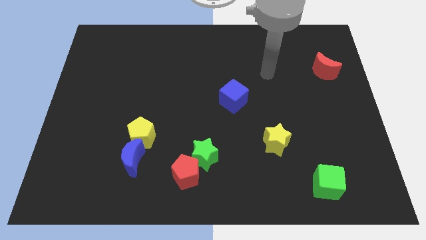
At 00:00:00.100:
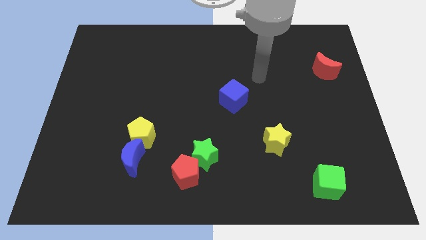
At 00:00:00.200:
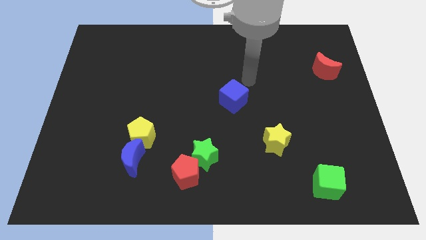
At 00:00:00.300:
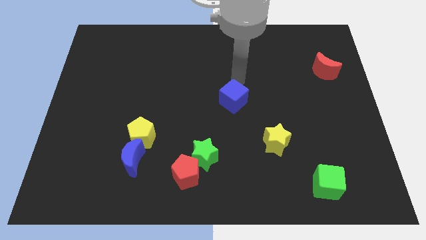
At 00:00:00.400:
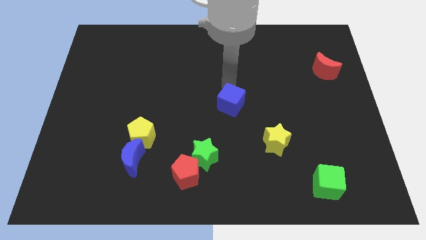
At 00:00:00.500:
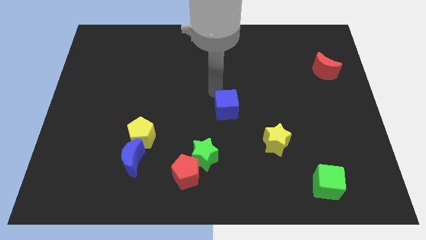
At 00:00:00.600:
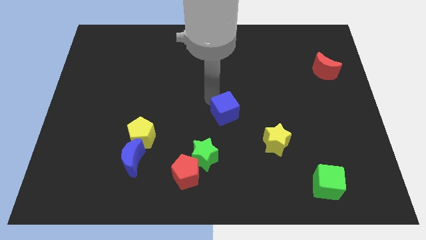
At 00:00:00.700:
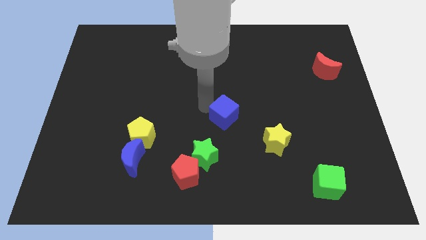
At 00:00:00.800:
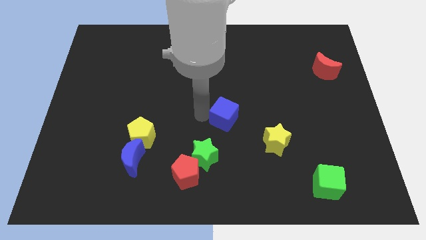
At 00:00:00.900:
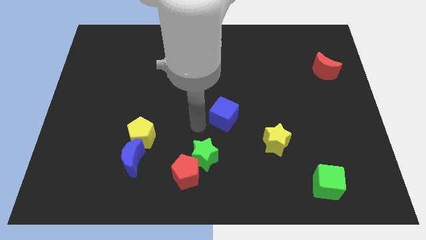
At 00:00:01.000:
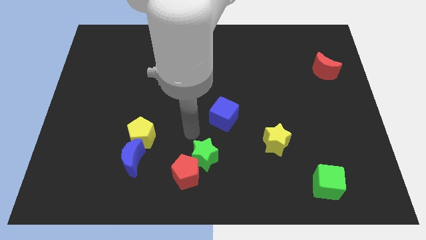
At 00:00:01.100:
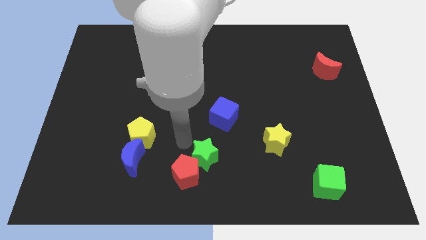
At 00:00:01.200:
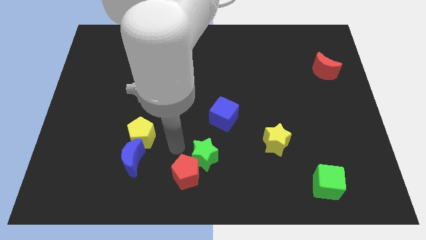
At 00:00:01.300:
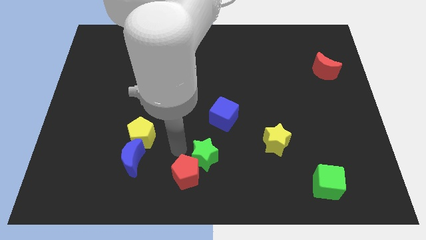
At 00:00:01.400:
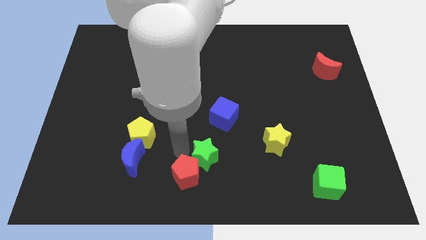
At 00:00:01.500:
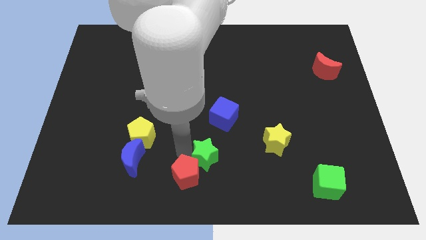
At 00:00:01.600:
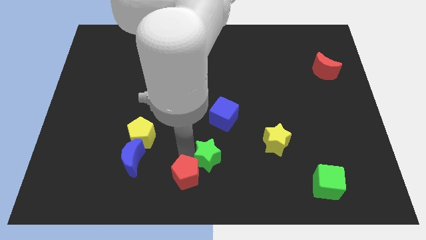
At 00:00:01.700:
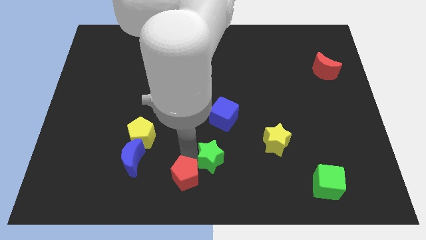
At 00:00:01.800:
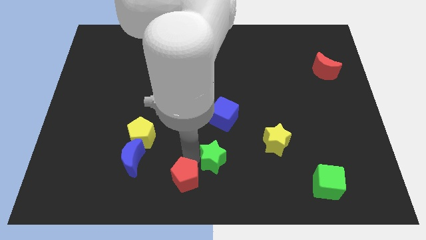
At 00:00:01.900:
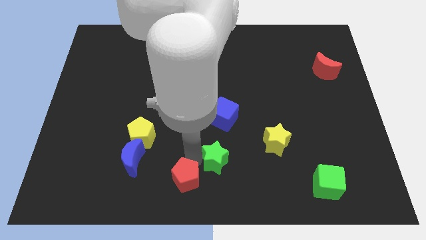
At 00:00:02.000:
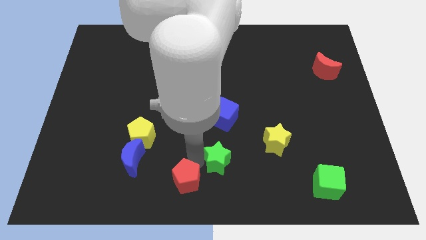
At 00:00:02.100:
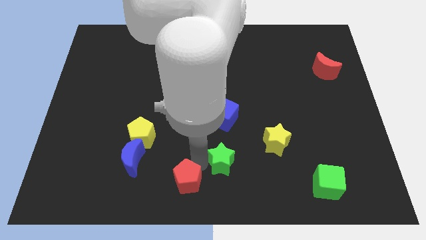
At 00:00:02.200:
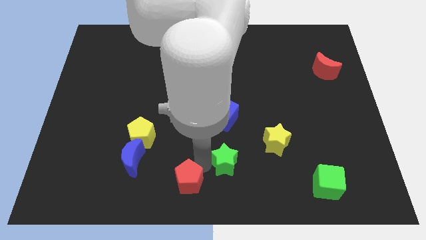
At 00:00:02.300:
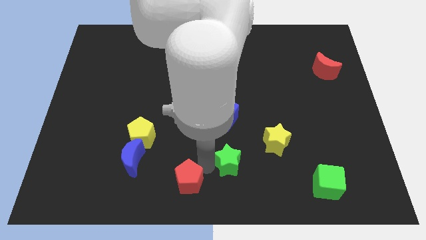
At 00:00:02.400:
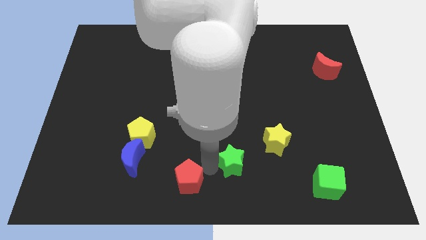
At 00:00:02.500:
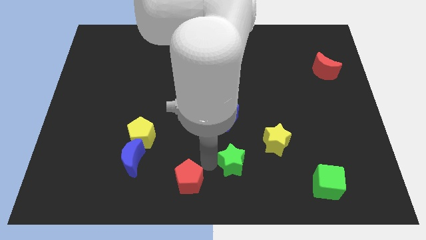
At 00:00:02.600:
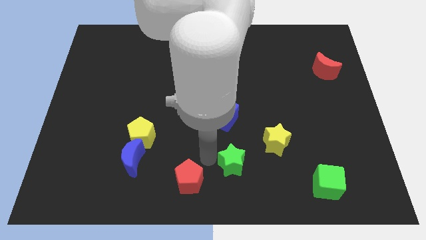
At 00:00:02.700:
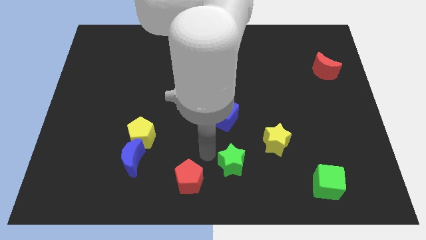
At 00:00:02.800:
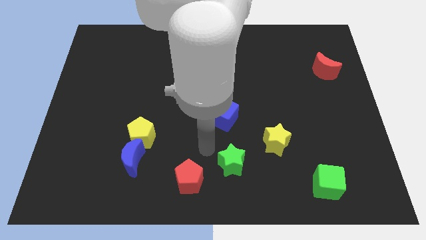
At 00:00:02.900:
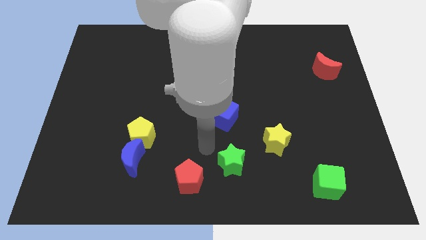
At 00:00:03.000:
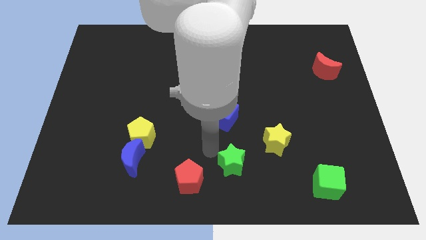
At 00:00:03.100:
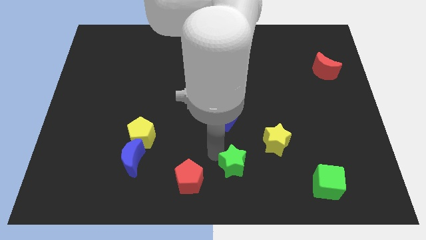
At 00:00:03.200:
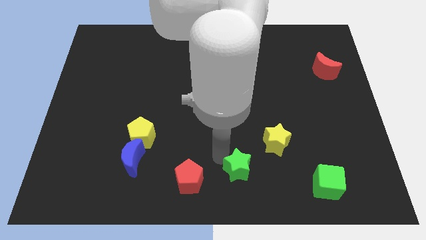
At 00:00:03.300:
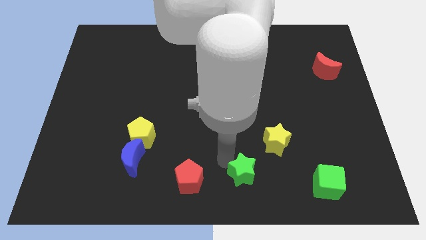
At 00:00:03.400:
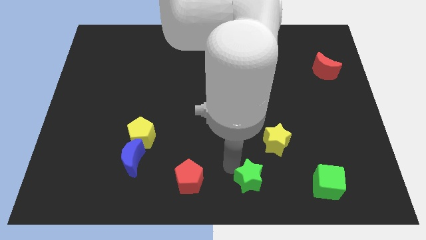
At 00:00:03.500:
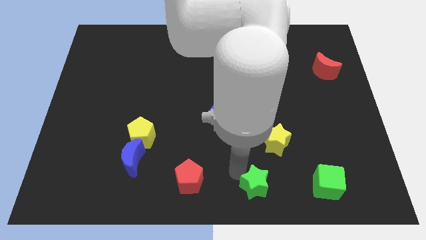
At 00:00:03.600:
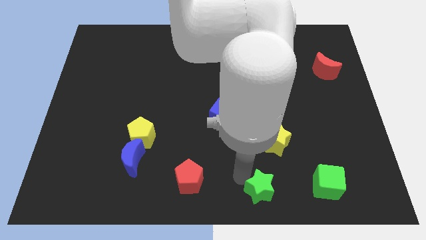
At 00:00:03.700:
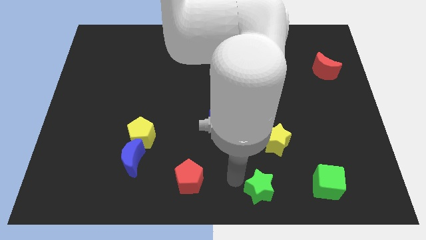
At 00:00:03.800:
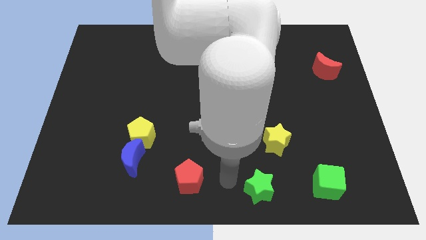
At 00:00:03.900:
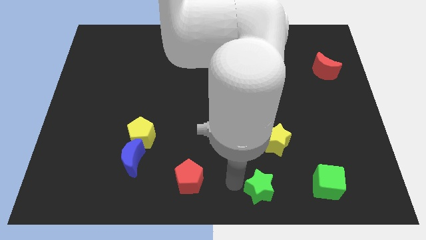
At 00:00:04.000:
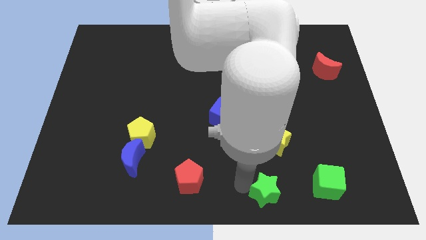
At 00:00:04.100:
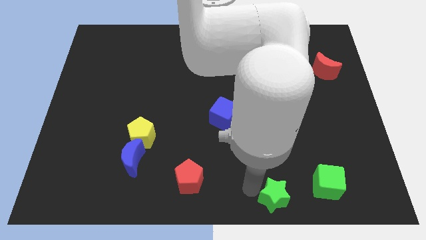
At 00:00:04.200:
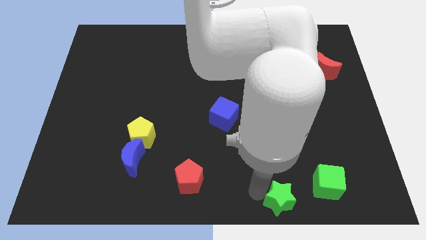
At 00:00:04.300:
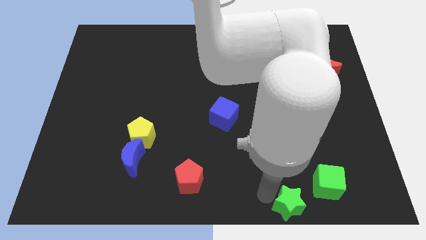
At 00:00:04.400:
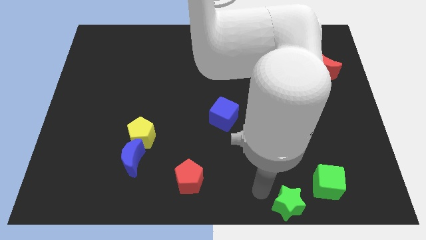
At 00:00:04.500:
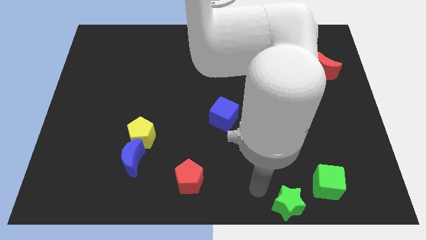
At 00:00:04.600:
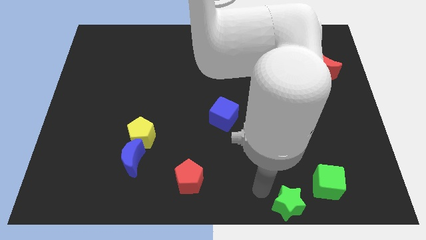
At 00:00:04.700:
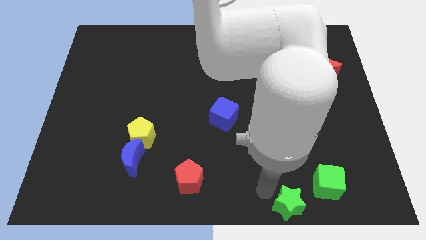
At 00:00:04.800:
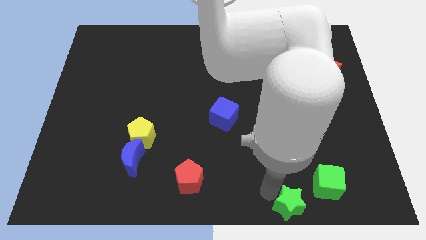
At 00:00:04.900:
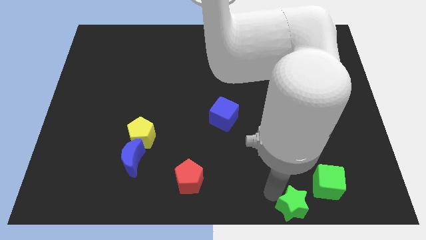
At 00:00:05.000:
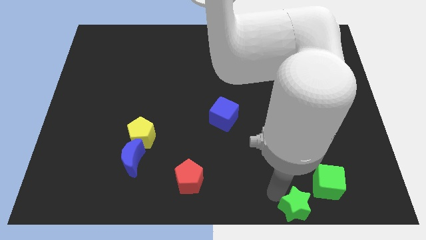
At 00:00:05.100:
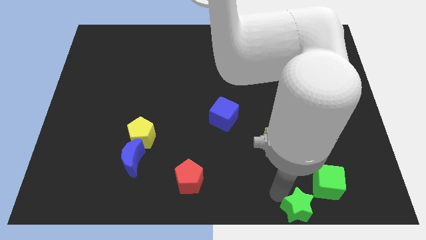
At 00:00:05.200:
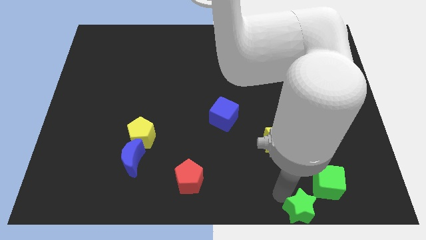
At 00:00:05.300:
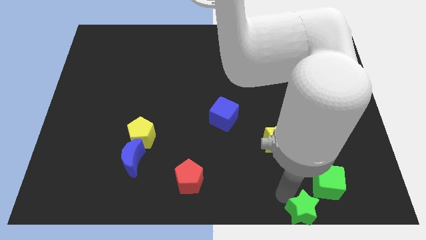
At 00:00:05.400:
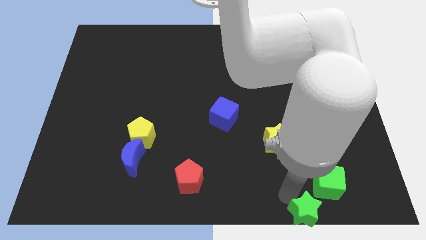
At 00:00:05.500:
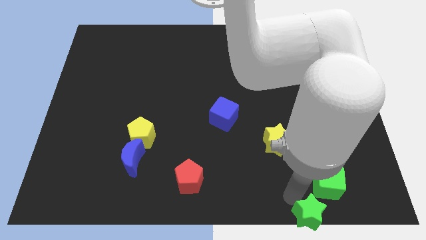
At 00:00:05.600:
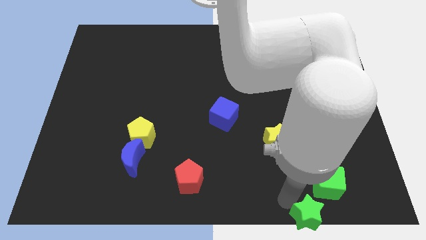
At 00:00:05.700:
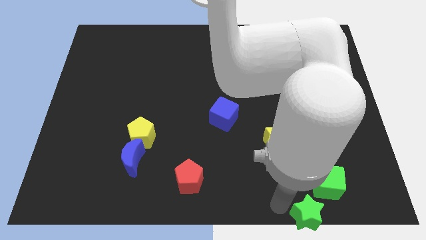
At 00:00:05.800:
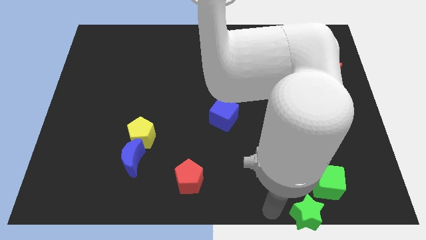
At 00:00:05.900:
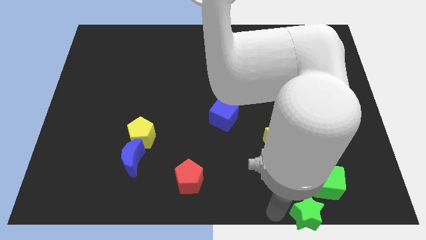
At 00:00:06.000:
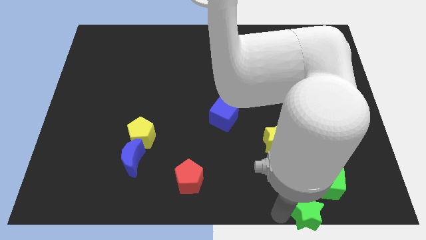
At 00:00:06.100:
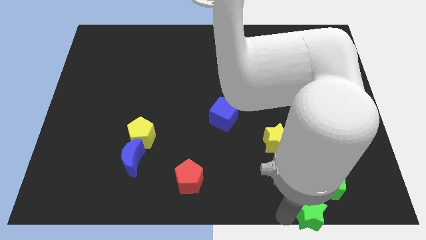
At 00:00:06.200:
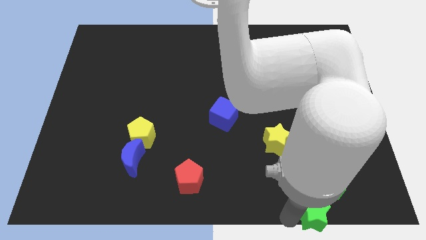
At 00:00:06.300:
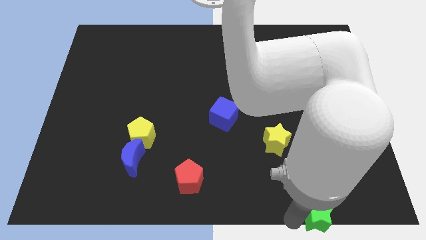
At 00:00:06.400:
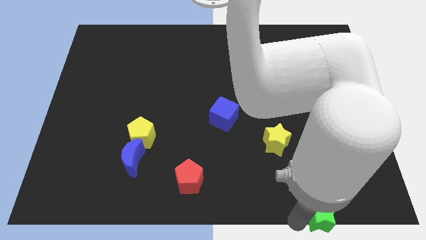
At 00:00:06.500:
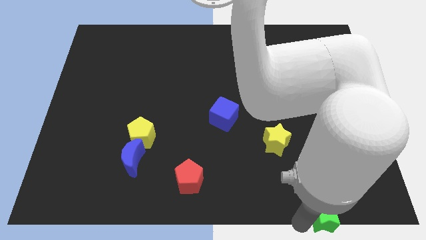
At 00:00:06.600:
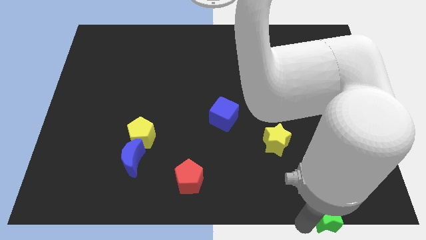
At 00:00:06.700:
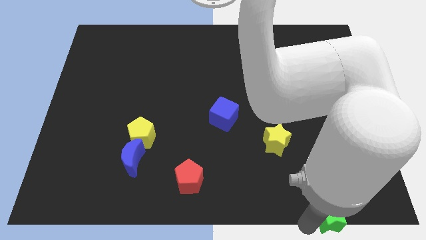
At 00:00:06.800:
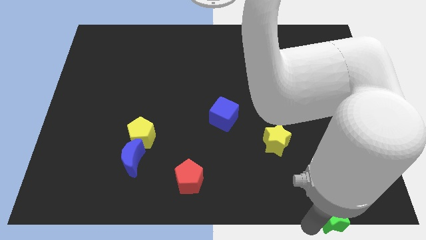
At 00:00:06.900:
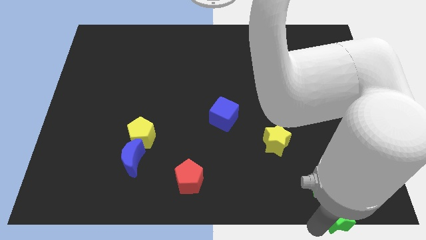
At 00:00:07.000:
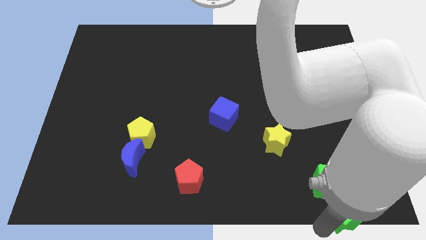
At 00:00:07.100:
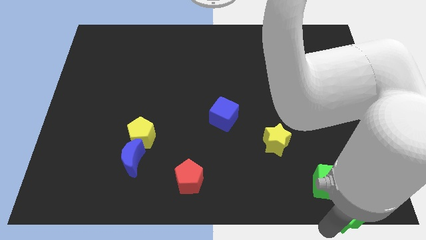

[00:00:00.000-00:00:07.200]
slide the green star to the bottom right corner
